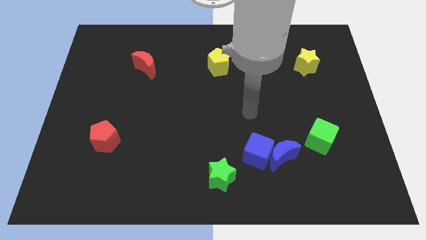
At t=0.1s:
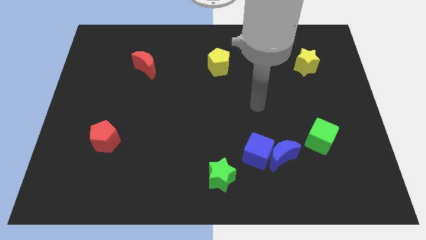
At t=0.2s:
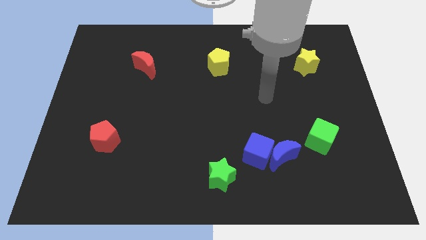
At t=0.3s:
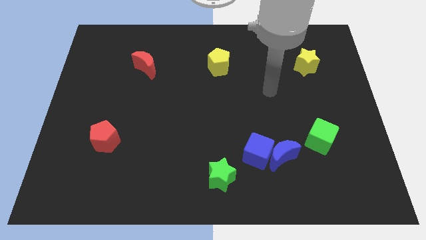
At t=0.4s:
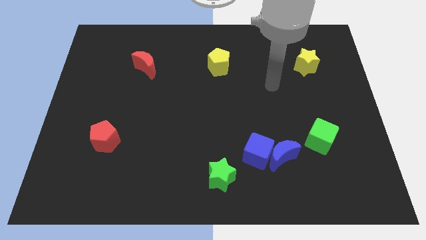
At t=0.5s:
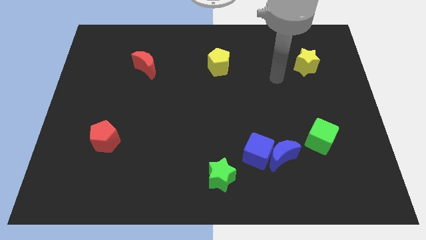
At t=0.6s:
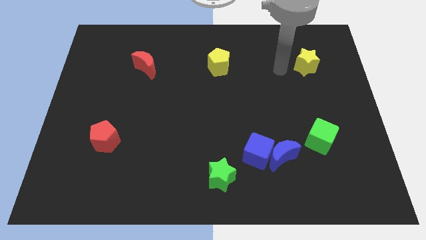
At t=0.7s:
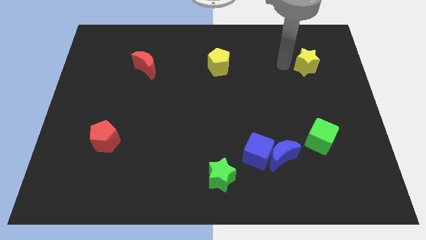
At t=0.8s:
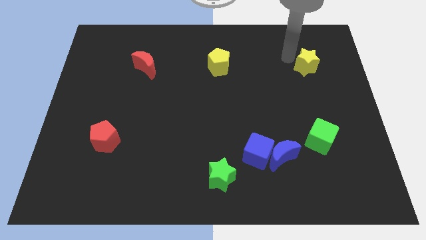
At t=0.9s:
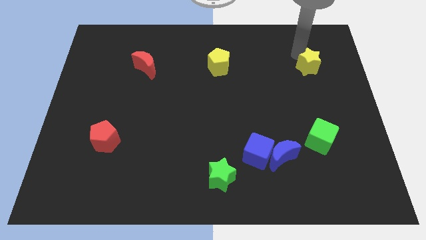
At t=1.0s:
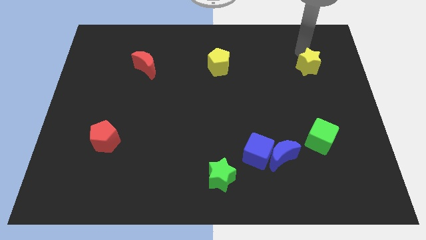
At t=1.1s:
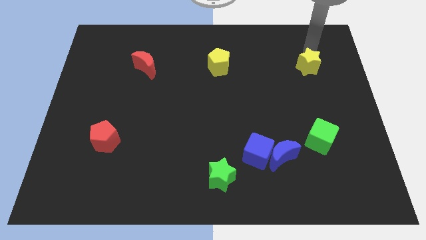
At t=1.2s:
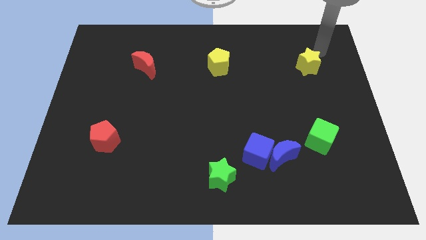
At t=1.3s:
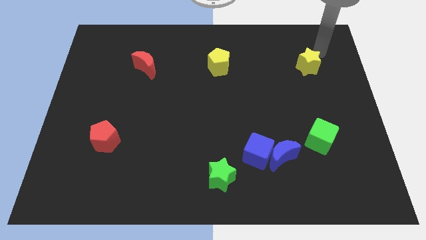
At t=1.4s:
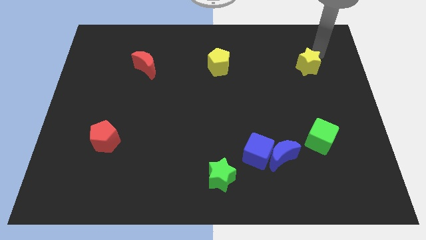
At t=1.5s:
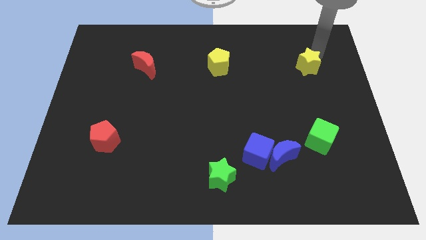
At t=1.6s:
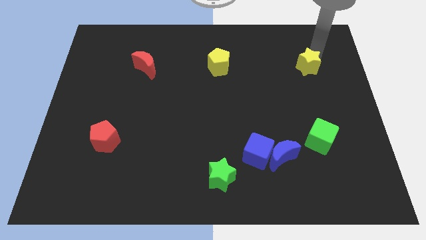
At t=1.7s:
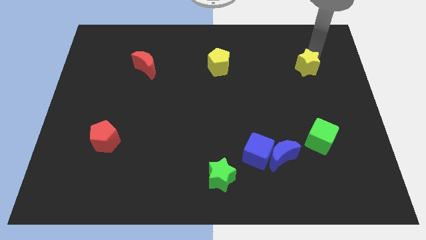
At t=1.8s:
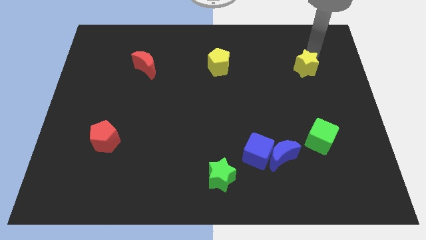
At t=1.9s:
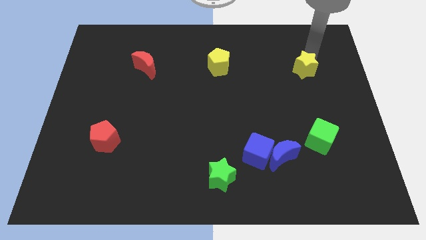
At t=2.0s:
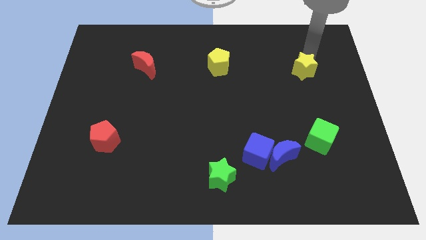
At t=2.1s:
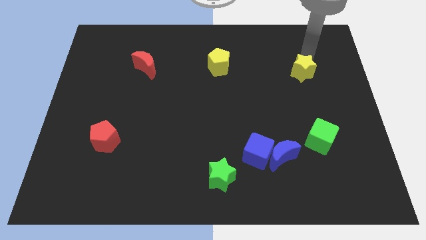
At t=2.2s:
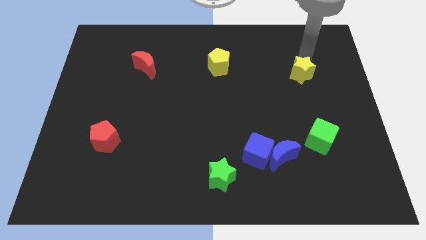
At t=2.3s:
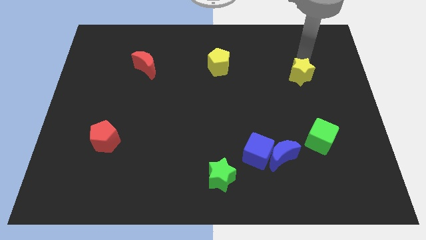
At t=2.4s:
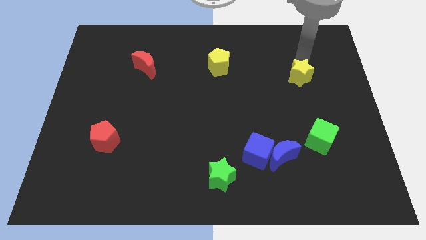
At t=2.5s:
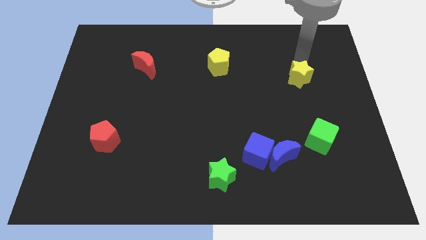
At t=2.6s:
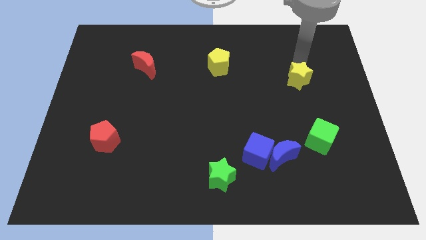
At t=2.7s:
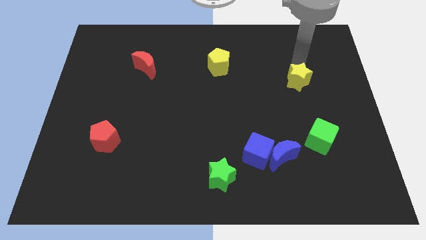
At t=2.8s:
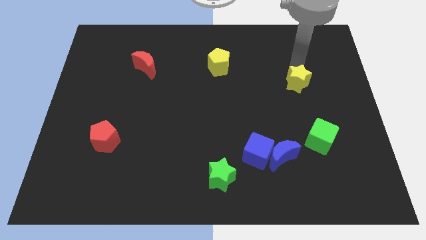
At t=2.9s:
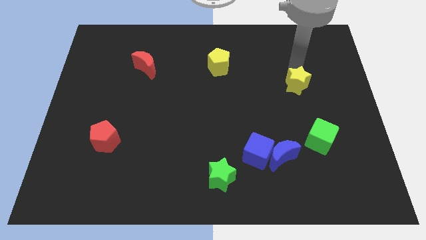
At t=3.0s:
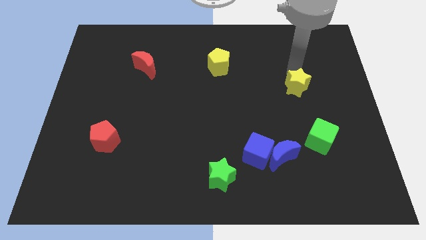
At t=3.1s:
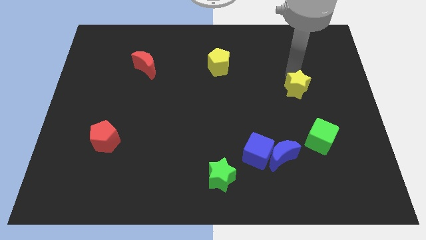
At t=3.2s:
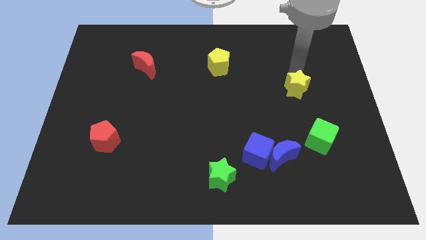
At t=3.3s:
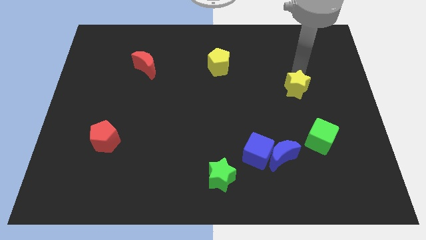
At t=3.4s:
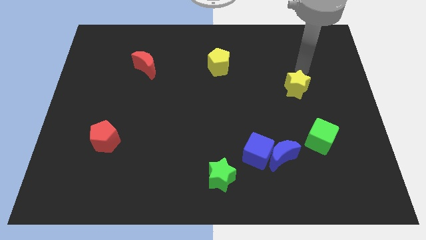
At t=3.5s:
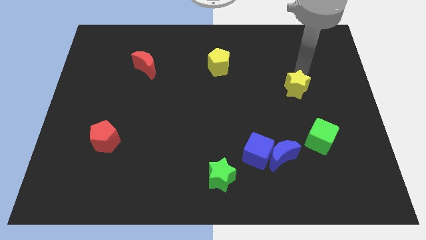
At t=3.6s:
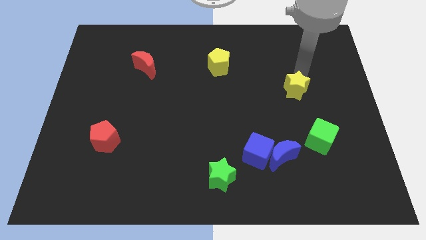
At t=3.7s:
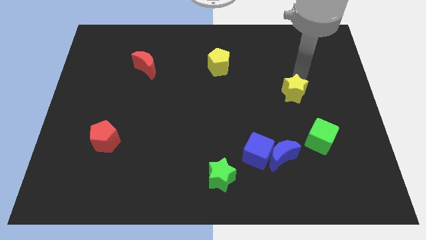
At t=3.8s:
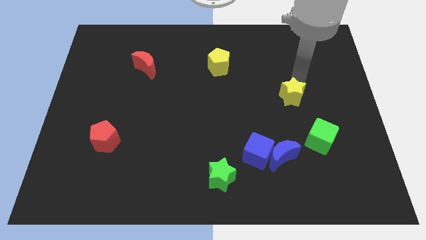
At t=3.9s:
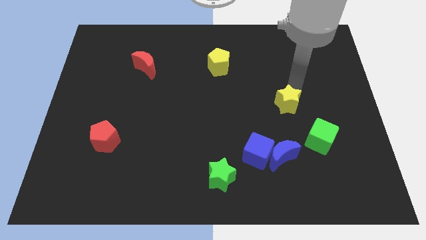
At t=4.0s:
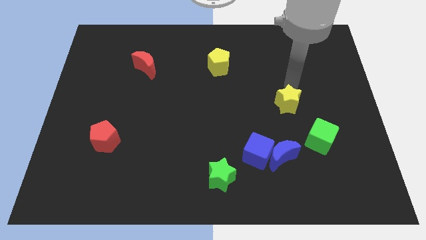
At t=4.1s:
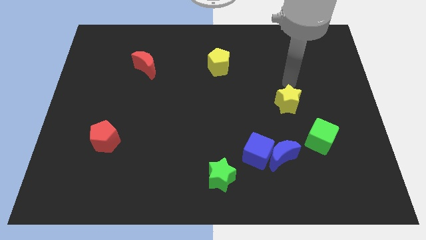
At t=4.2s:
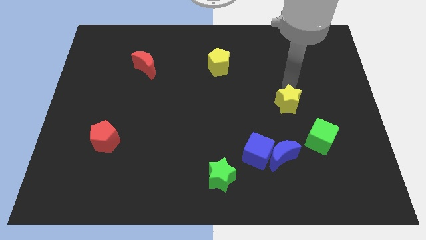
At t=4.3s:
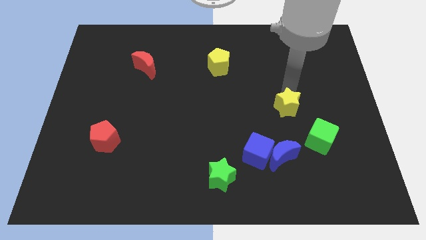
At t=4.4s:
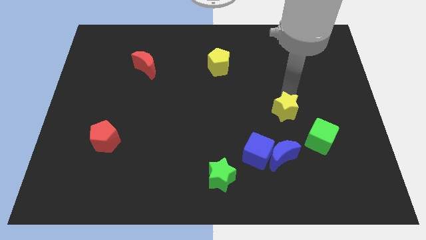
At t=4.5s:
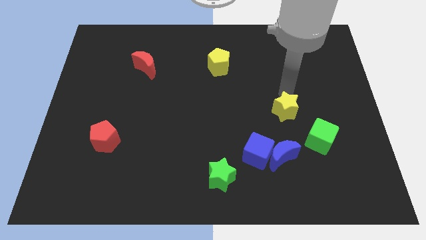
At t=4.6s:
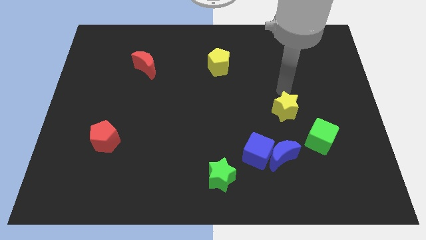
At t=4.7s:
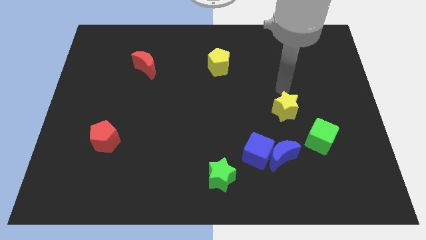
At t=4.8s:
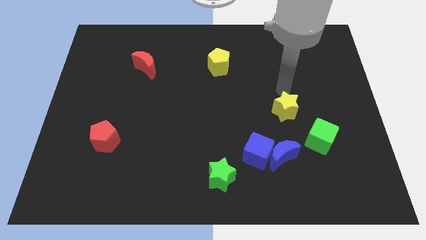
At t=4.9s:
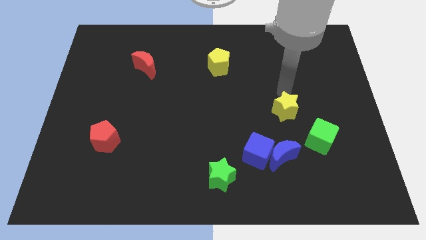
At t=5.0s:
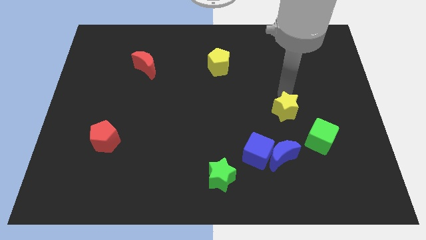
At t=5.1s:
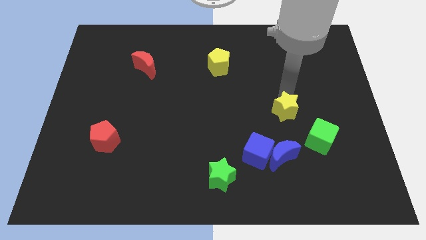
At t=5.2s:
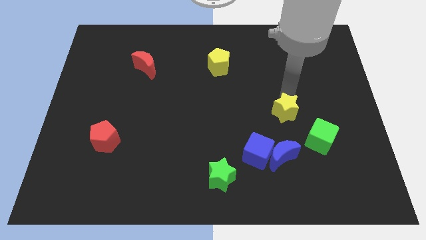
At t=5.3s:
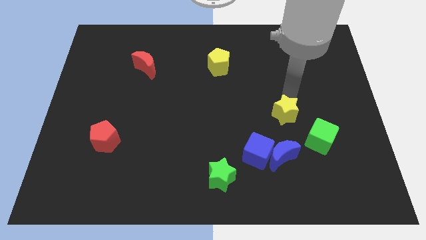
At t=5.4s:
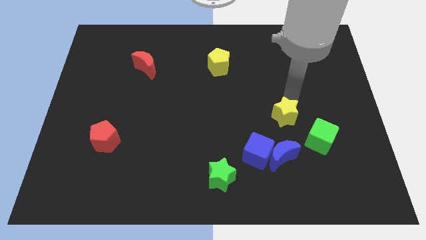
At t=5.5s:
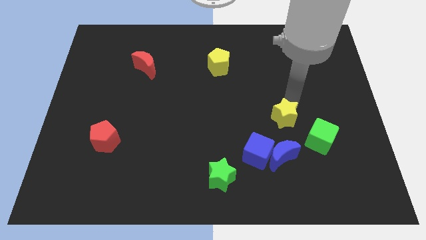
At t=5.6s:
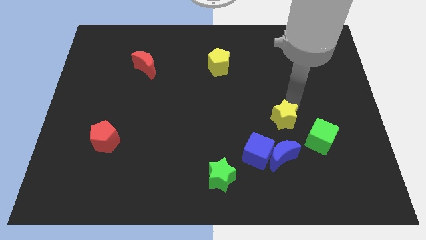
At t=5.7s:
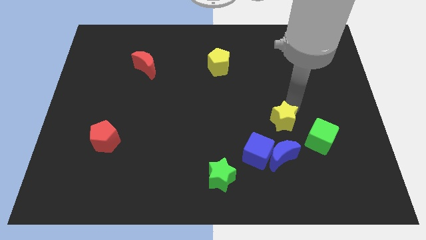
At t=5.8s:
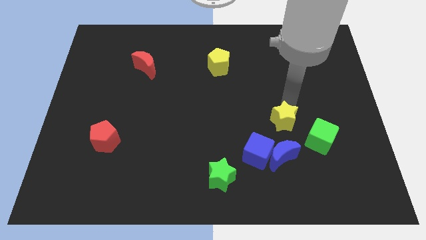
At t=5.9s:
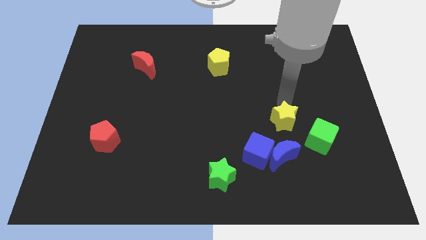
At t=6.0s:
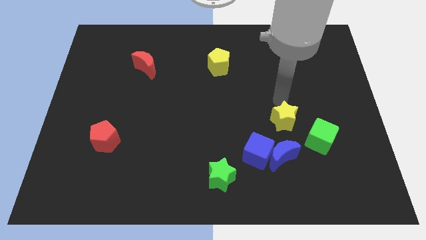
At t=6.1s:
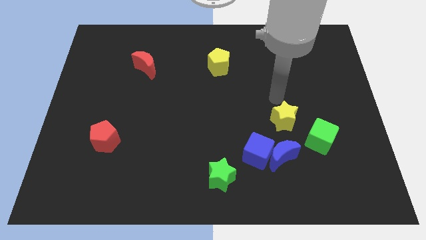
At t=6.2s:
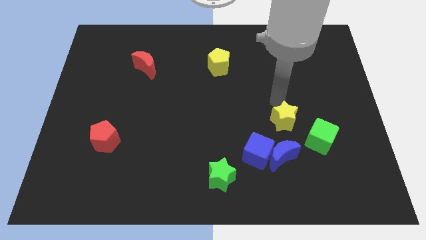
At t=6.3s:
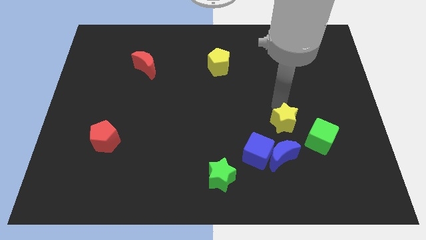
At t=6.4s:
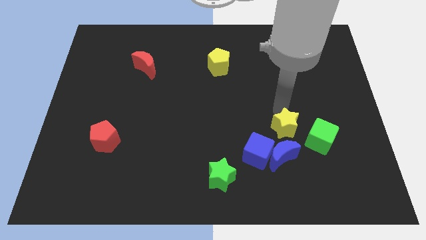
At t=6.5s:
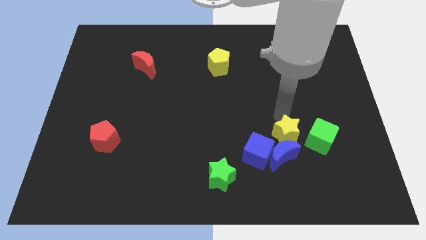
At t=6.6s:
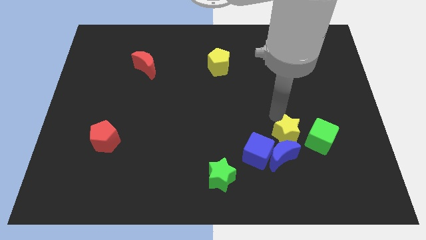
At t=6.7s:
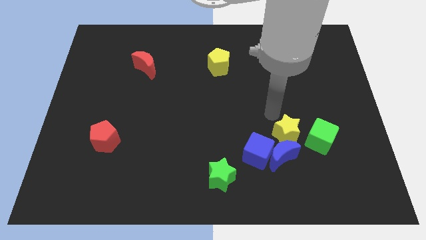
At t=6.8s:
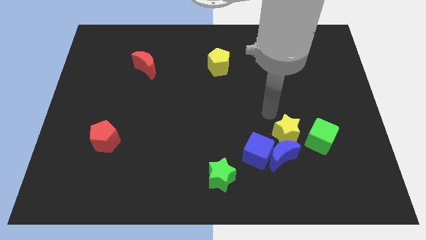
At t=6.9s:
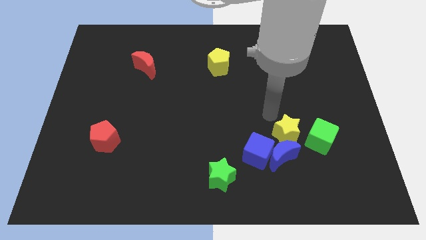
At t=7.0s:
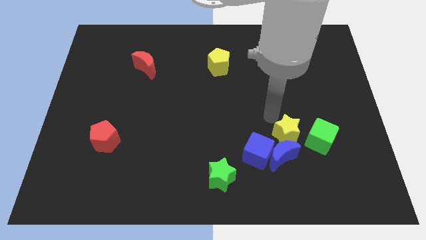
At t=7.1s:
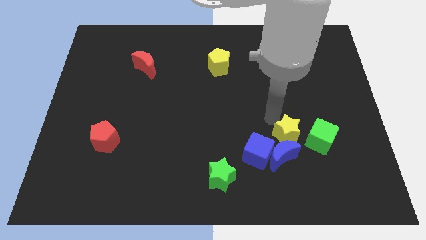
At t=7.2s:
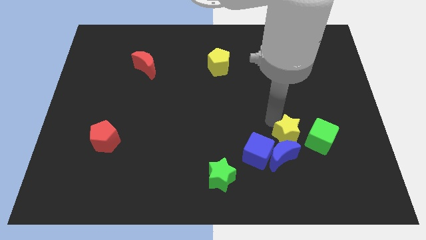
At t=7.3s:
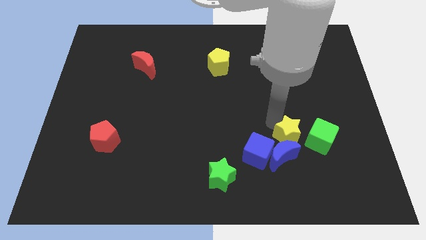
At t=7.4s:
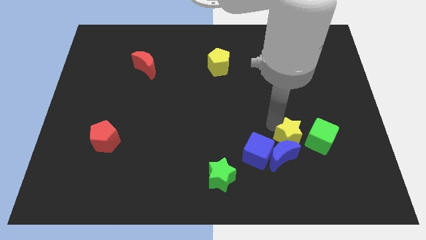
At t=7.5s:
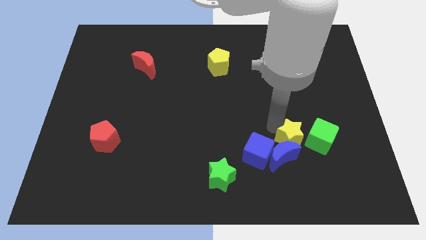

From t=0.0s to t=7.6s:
slide the yellow star down

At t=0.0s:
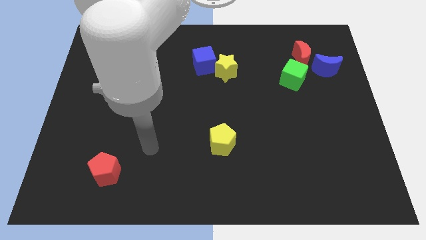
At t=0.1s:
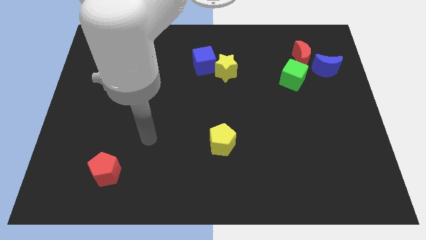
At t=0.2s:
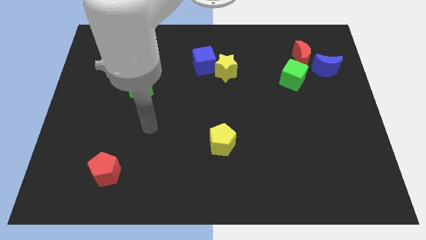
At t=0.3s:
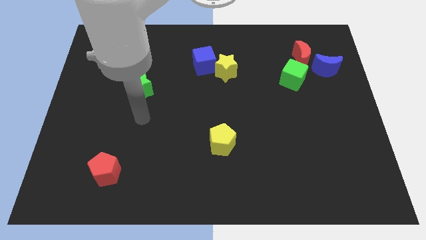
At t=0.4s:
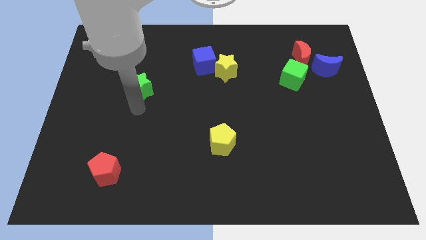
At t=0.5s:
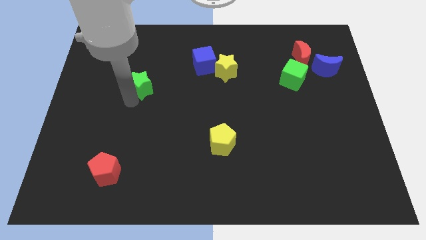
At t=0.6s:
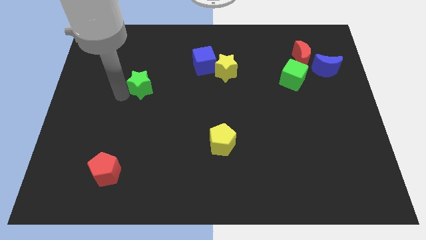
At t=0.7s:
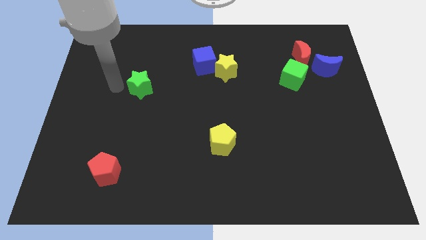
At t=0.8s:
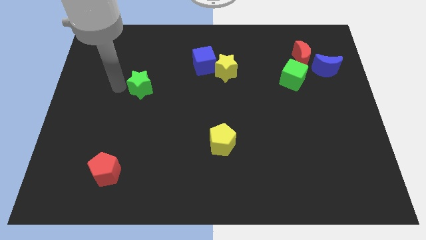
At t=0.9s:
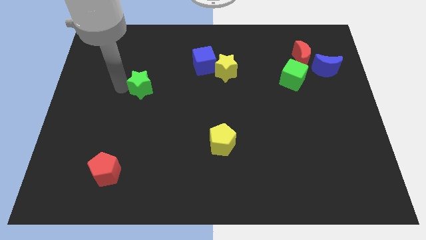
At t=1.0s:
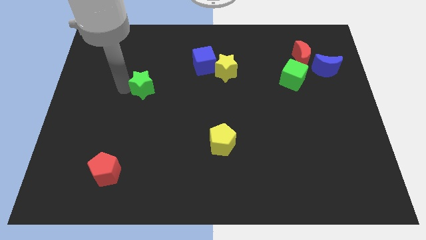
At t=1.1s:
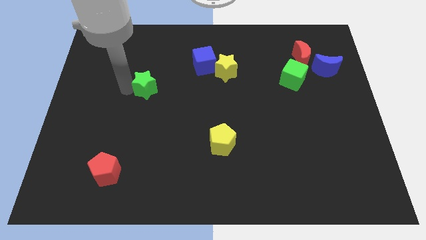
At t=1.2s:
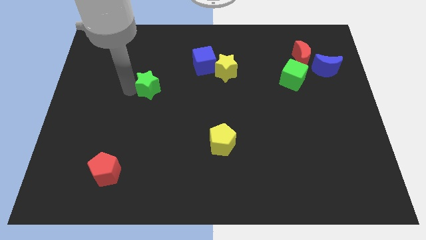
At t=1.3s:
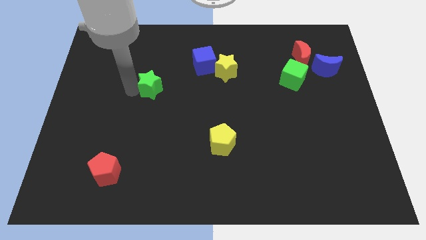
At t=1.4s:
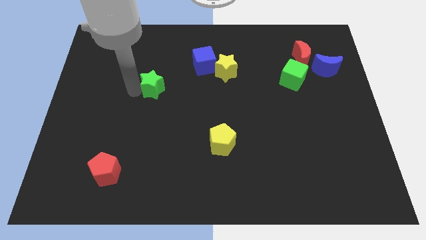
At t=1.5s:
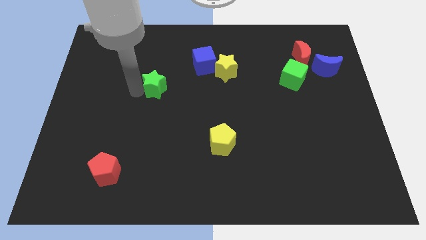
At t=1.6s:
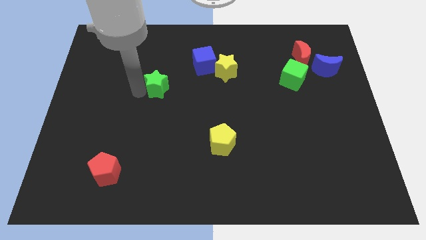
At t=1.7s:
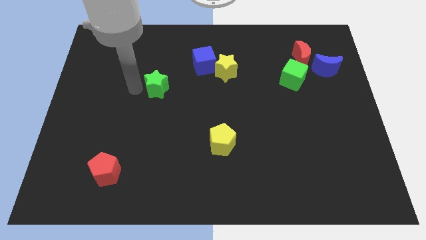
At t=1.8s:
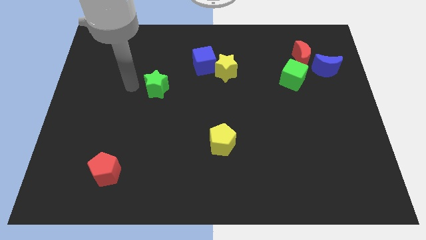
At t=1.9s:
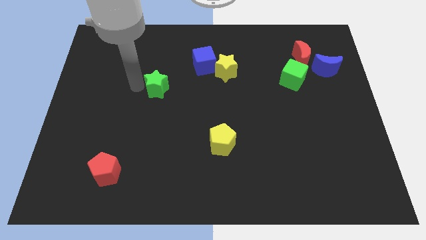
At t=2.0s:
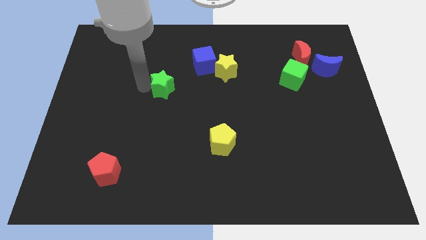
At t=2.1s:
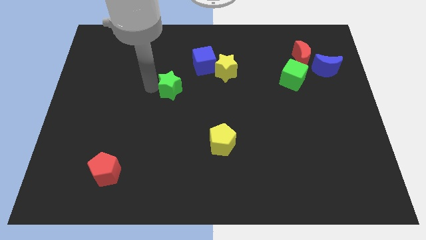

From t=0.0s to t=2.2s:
move the green star to the right a bit
